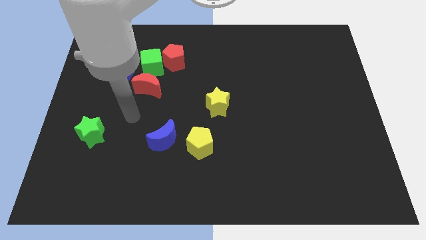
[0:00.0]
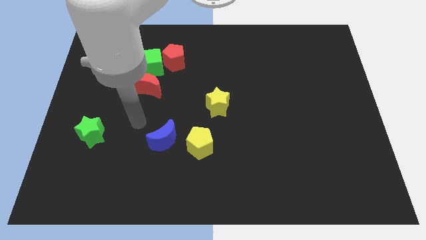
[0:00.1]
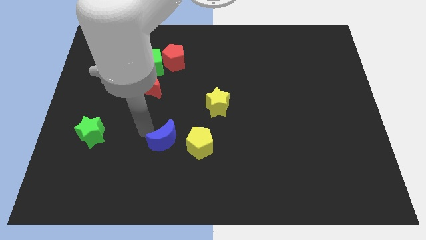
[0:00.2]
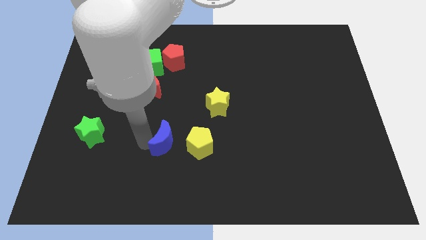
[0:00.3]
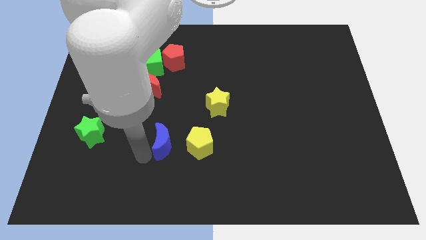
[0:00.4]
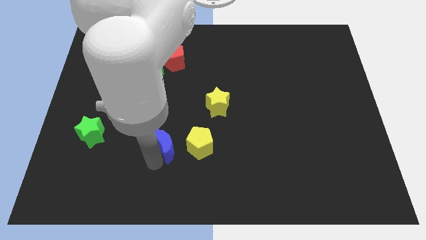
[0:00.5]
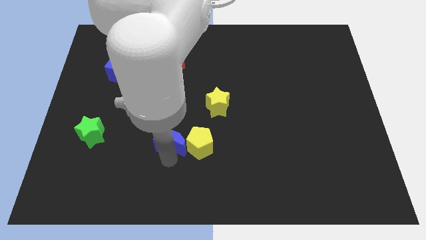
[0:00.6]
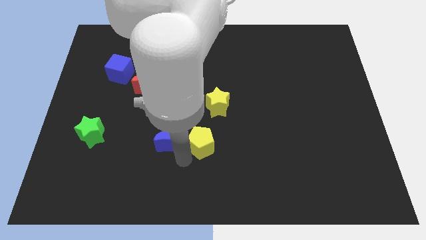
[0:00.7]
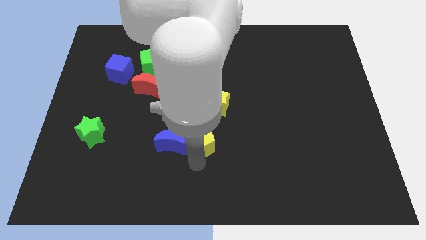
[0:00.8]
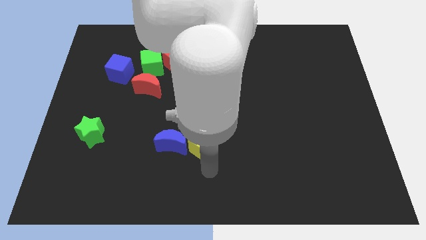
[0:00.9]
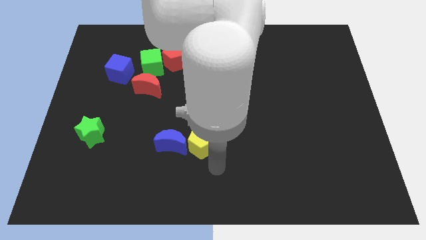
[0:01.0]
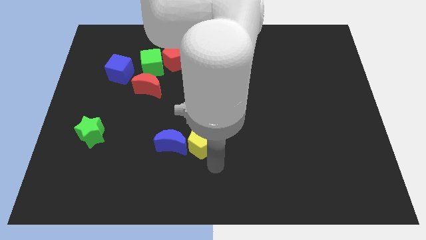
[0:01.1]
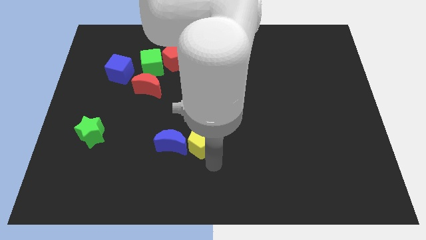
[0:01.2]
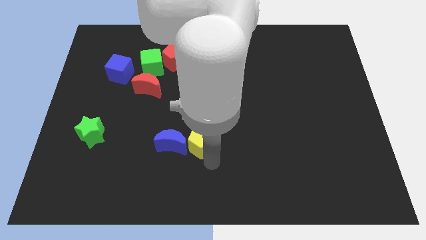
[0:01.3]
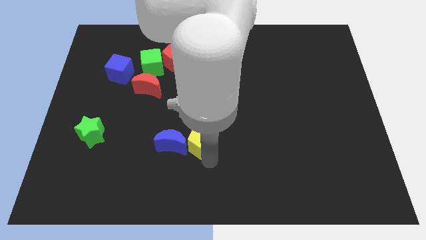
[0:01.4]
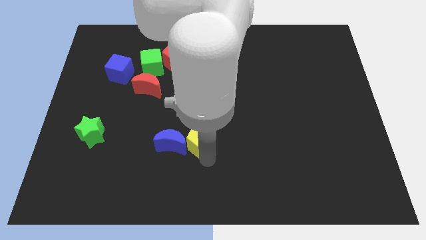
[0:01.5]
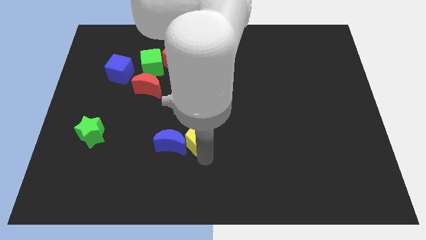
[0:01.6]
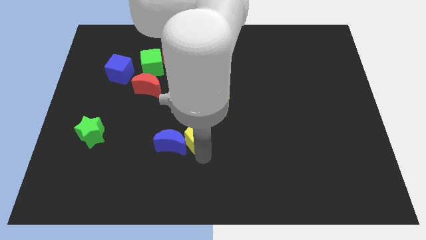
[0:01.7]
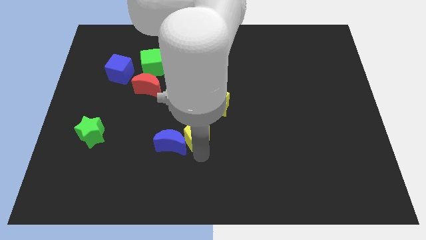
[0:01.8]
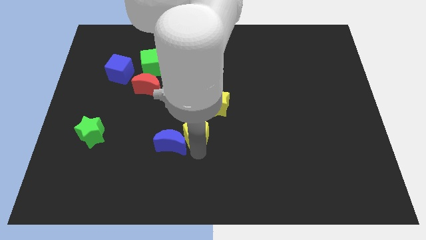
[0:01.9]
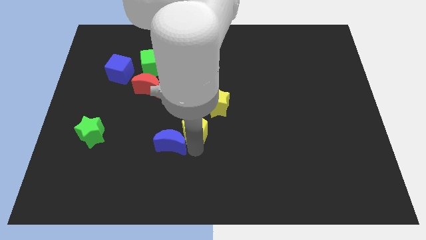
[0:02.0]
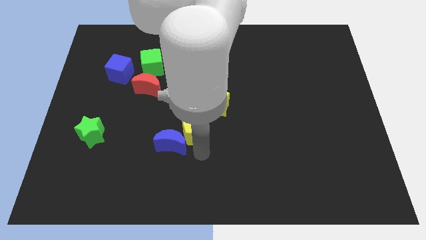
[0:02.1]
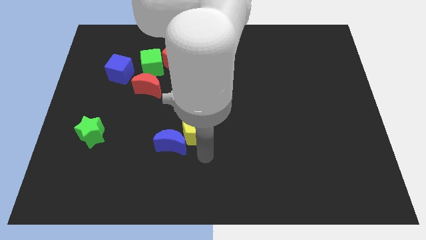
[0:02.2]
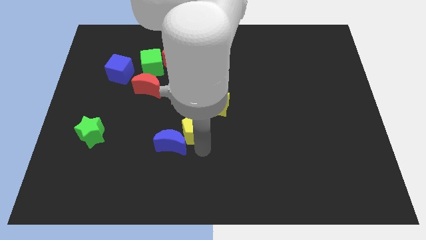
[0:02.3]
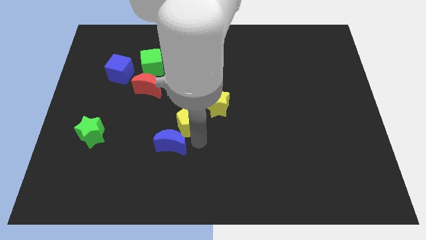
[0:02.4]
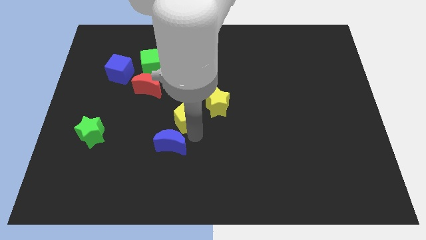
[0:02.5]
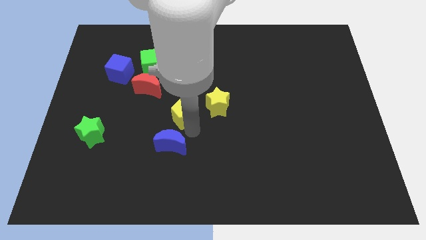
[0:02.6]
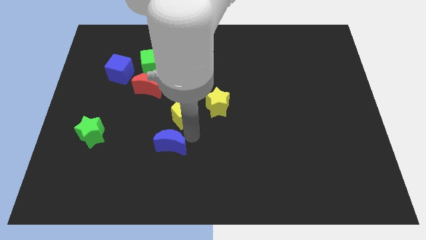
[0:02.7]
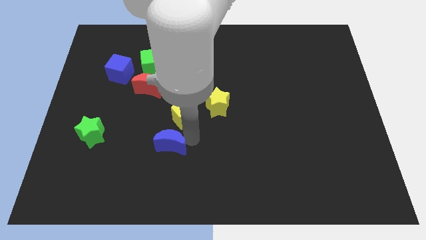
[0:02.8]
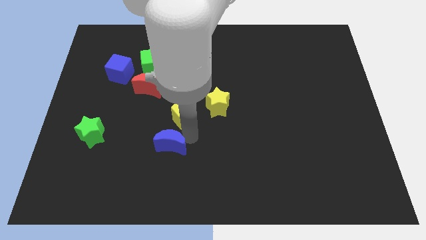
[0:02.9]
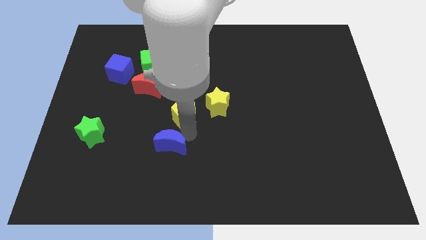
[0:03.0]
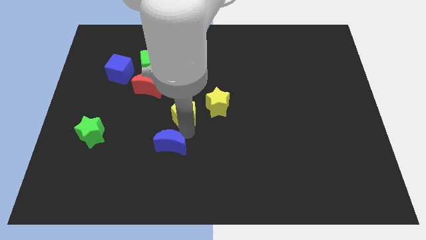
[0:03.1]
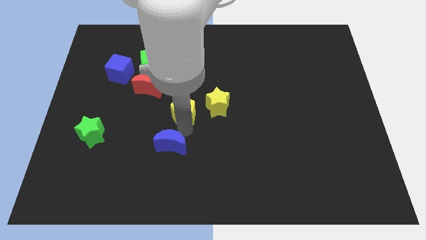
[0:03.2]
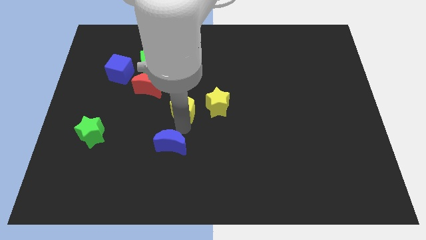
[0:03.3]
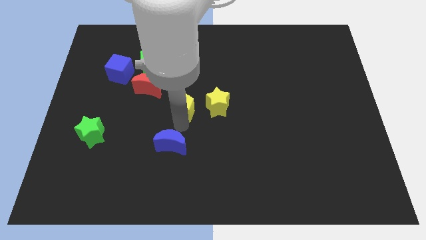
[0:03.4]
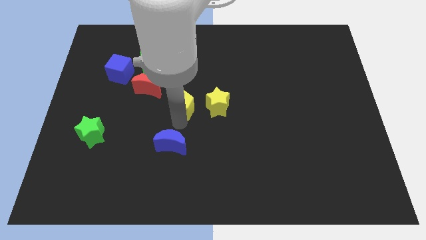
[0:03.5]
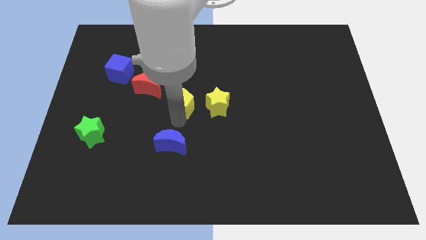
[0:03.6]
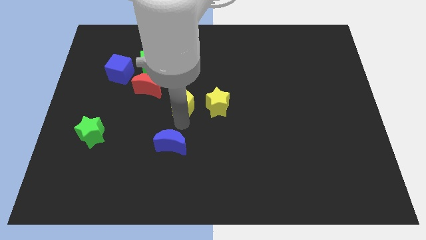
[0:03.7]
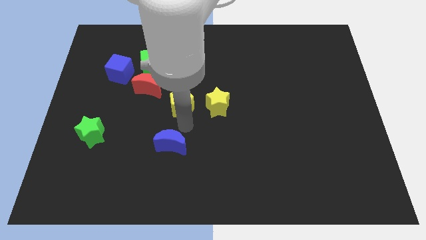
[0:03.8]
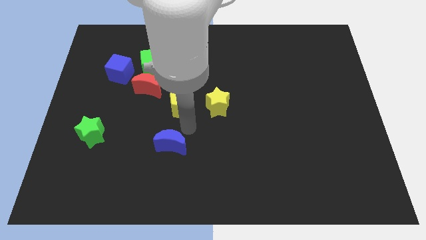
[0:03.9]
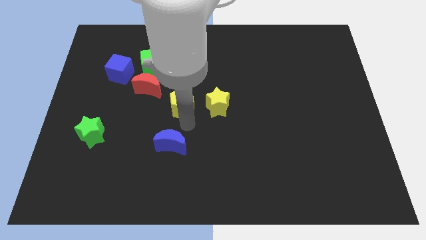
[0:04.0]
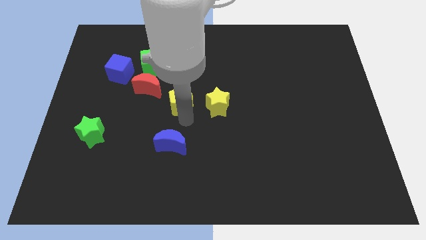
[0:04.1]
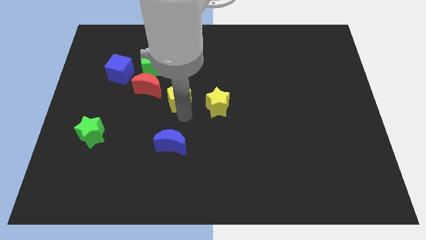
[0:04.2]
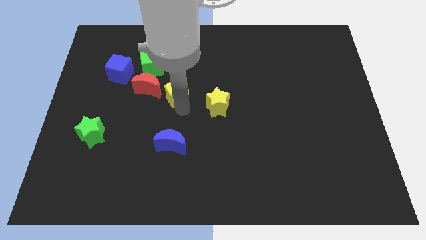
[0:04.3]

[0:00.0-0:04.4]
move the yellow pentagon to the bottom right of the green cube

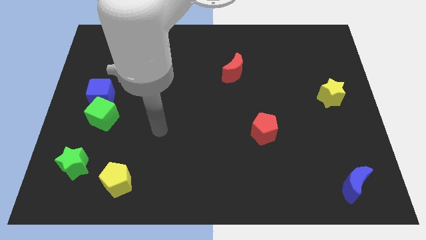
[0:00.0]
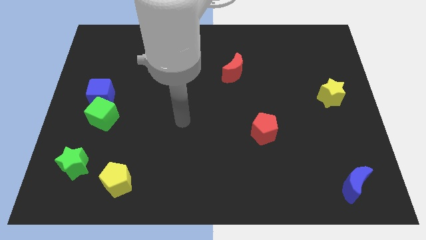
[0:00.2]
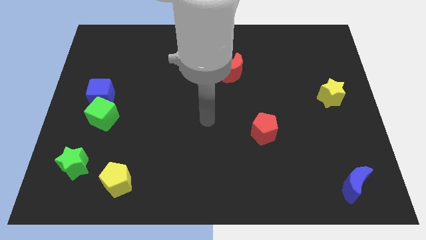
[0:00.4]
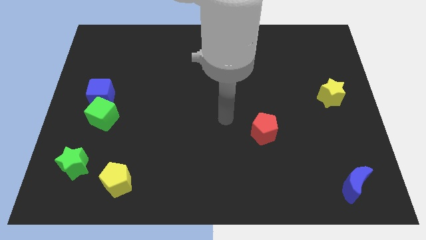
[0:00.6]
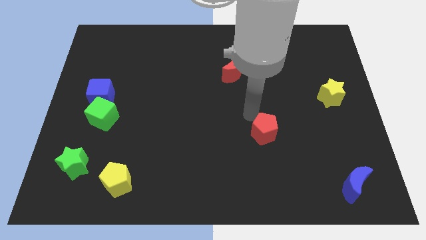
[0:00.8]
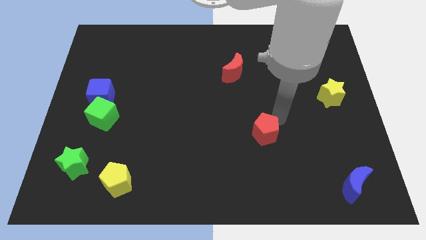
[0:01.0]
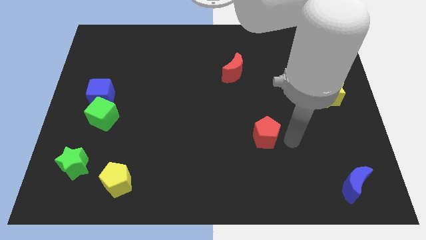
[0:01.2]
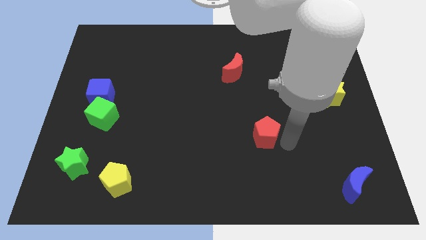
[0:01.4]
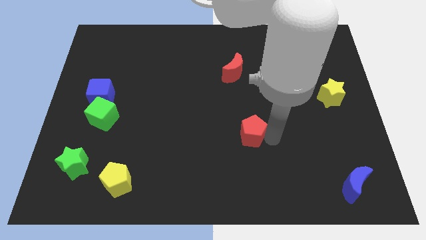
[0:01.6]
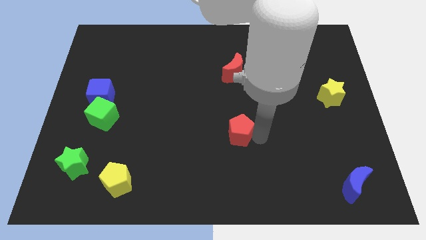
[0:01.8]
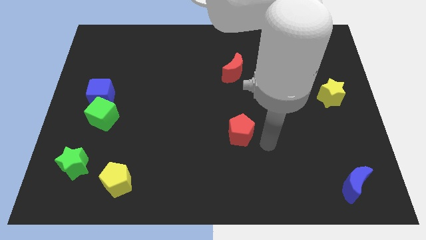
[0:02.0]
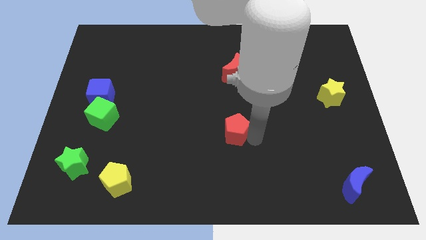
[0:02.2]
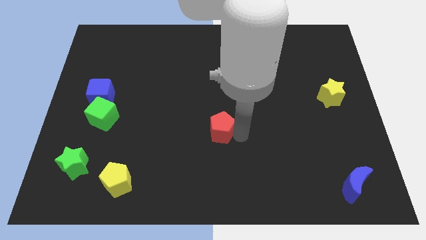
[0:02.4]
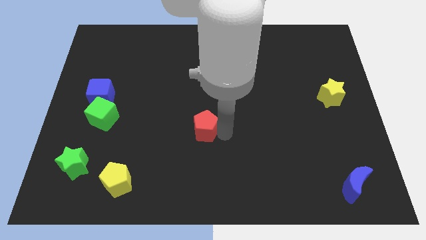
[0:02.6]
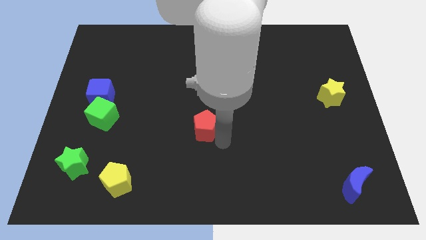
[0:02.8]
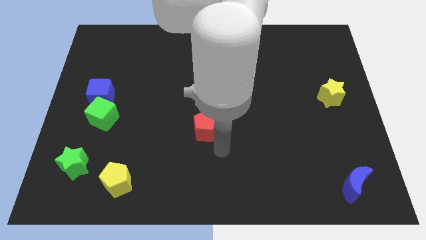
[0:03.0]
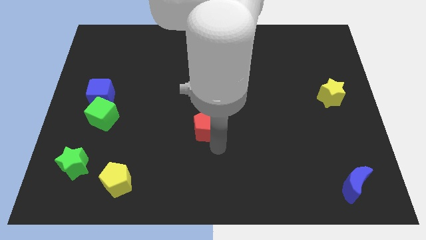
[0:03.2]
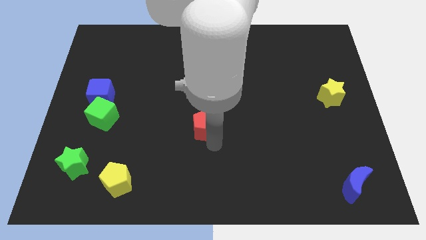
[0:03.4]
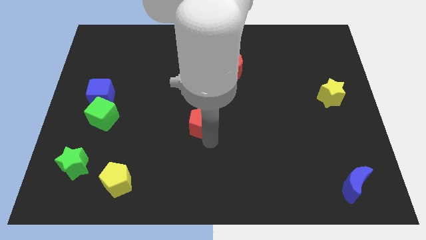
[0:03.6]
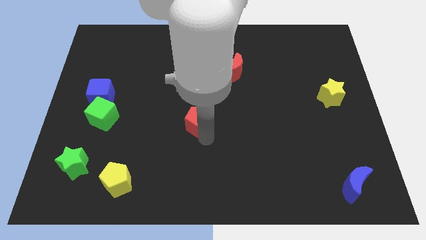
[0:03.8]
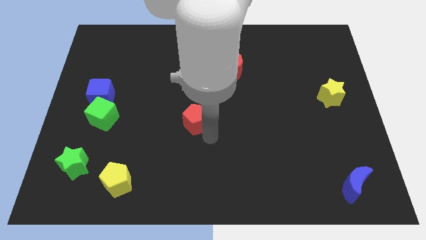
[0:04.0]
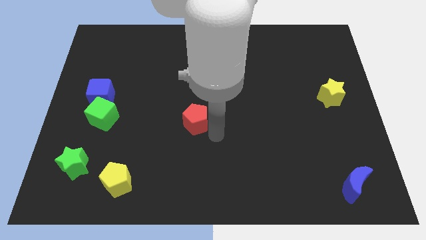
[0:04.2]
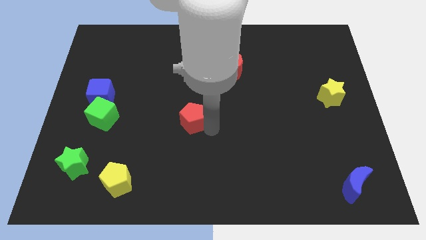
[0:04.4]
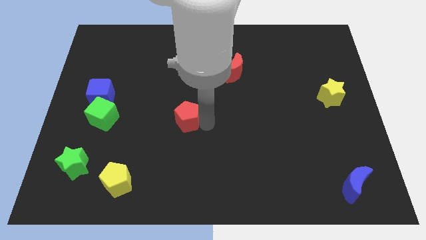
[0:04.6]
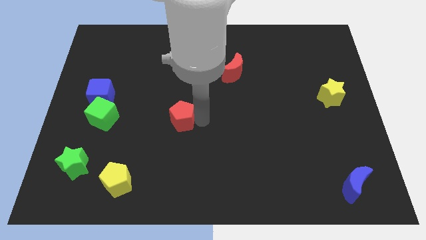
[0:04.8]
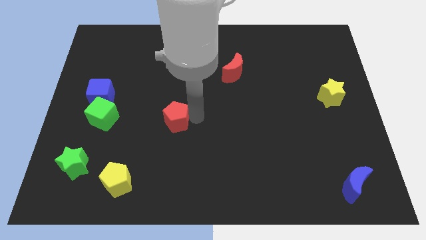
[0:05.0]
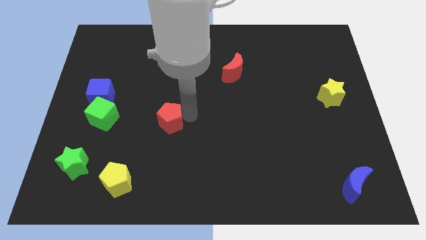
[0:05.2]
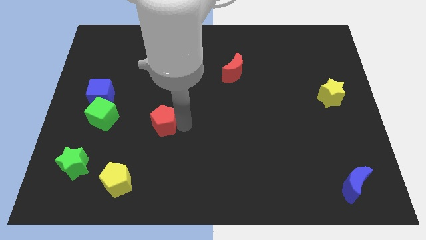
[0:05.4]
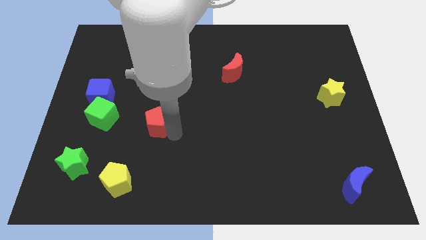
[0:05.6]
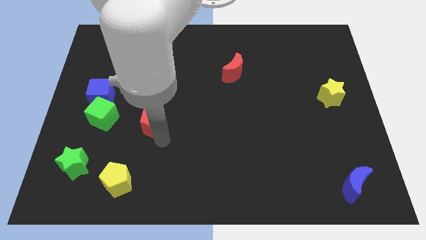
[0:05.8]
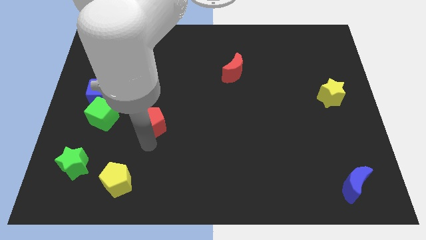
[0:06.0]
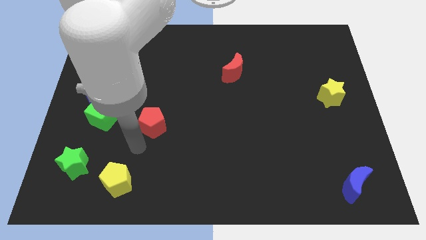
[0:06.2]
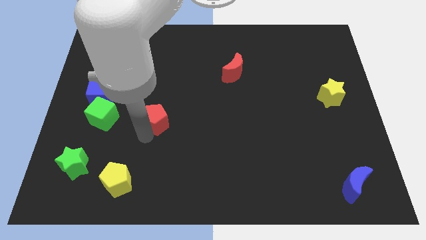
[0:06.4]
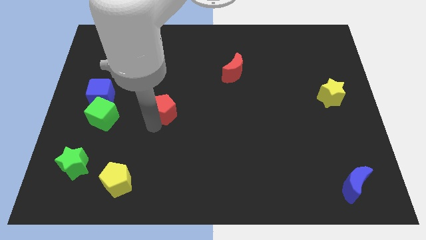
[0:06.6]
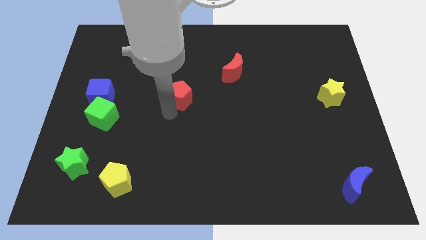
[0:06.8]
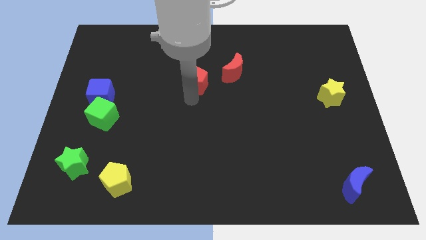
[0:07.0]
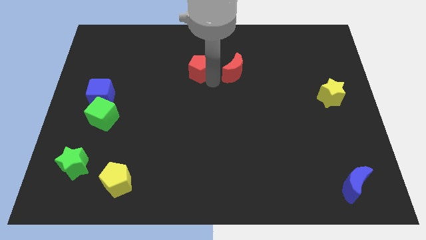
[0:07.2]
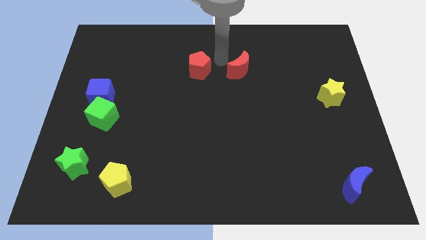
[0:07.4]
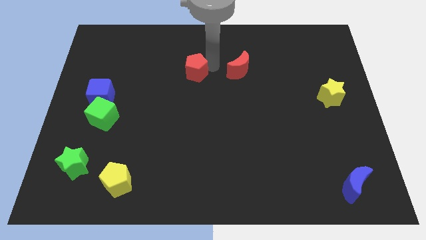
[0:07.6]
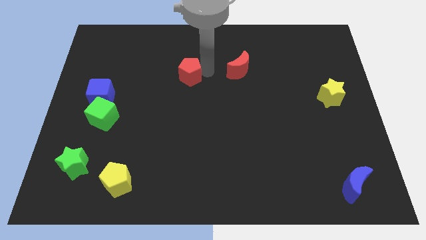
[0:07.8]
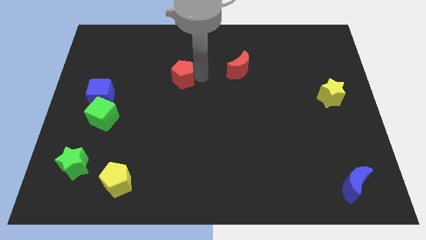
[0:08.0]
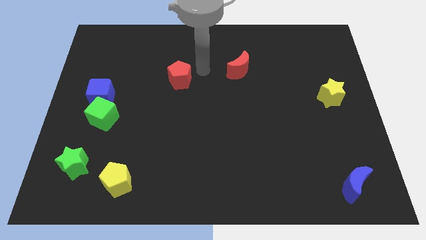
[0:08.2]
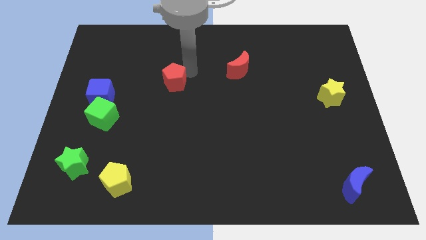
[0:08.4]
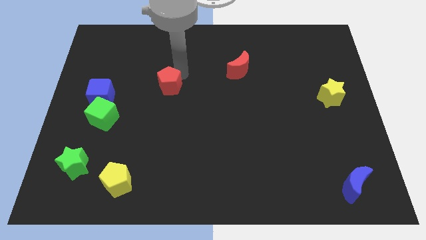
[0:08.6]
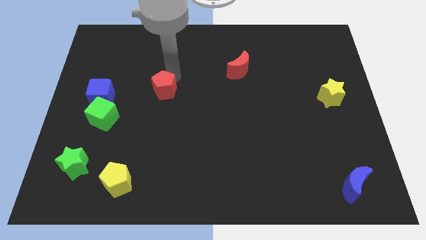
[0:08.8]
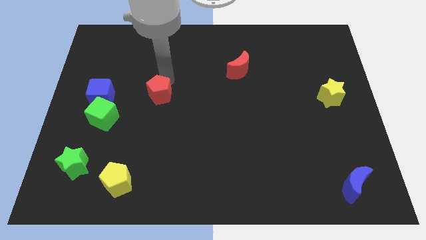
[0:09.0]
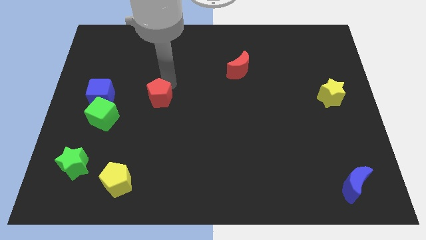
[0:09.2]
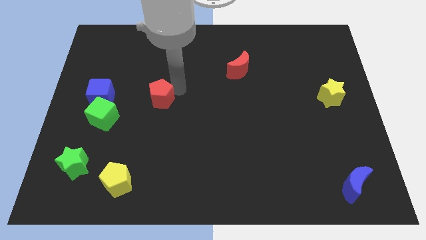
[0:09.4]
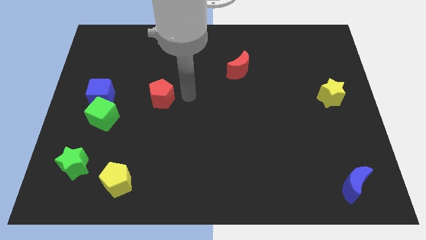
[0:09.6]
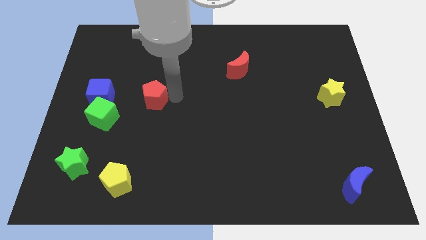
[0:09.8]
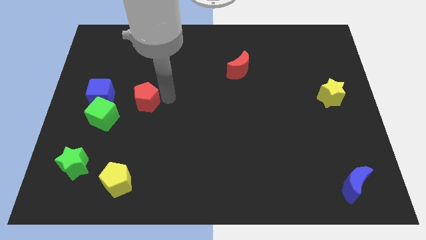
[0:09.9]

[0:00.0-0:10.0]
slide the red pentagon to the top right of the green cube
